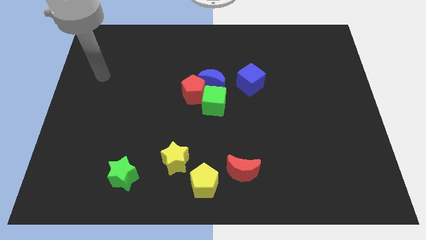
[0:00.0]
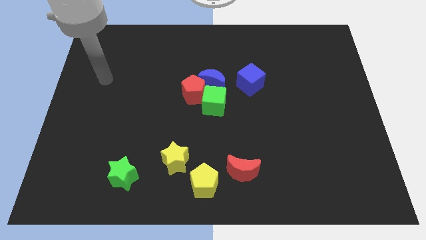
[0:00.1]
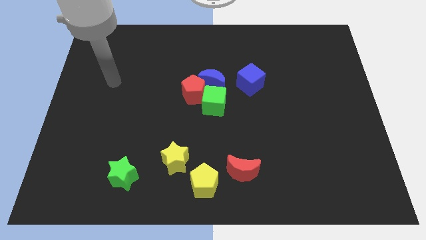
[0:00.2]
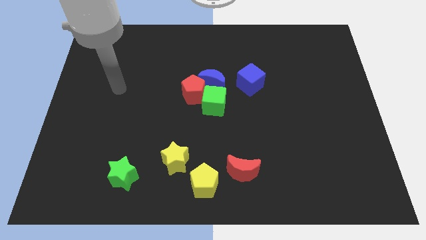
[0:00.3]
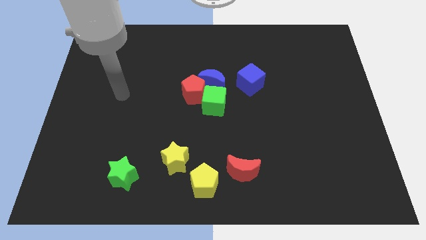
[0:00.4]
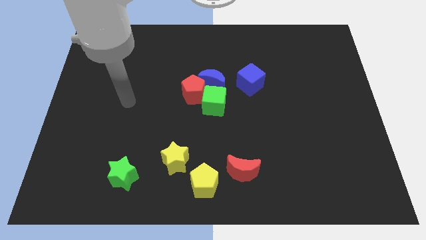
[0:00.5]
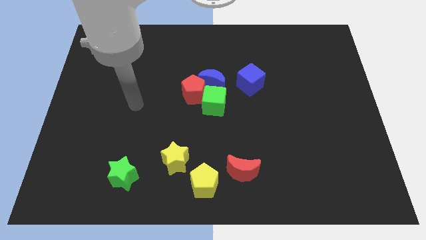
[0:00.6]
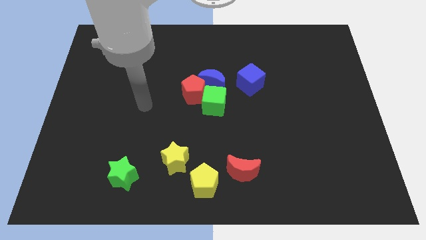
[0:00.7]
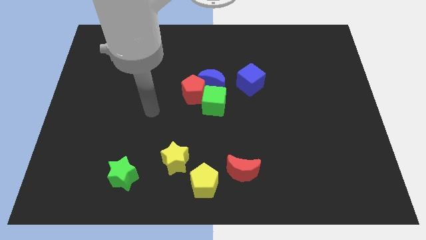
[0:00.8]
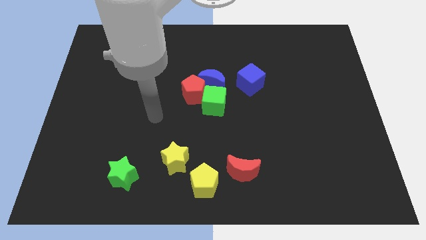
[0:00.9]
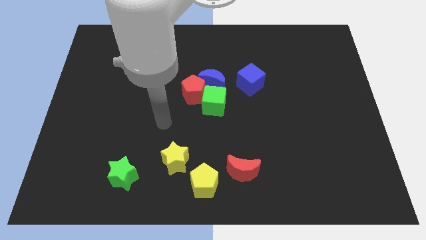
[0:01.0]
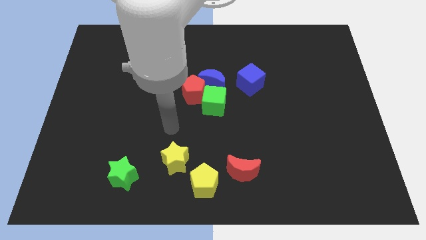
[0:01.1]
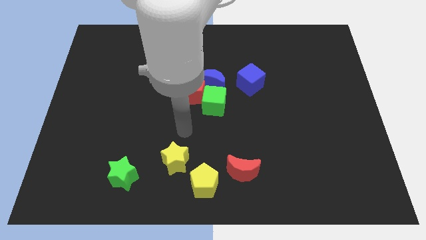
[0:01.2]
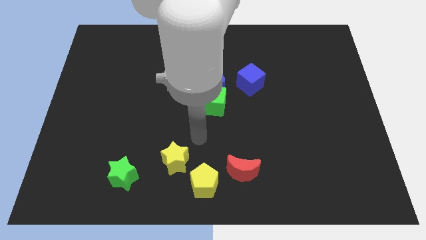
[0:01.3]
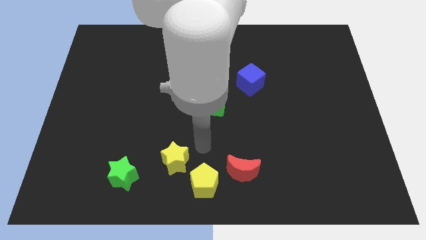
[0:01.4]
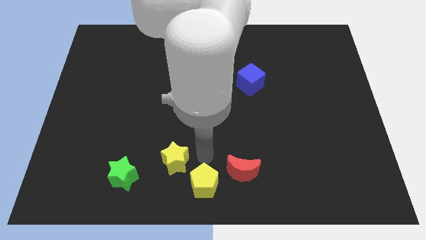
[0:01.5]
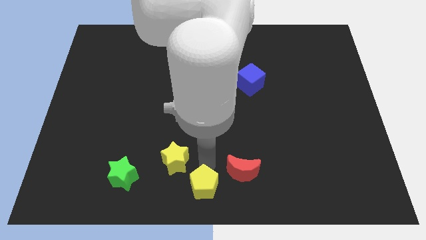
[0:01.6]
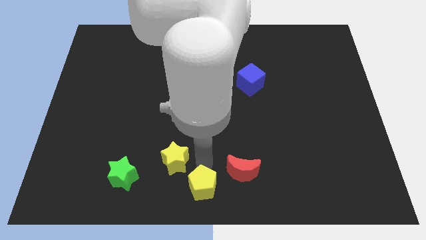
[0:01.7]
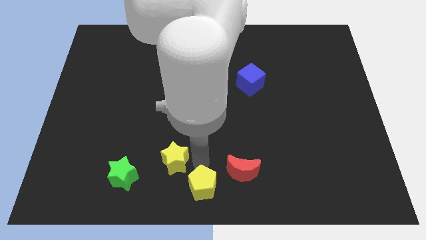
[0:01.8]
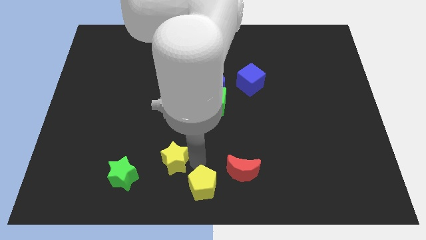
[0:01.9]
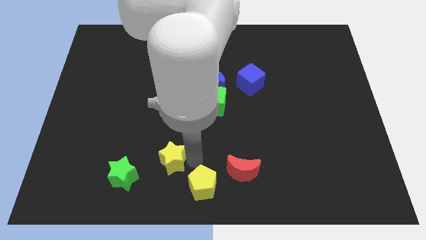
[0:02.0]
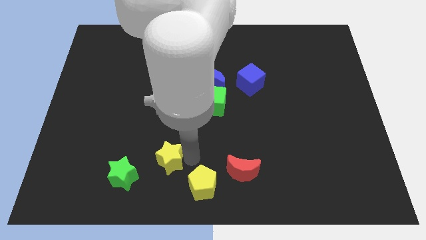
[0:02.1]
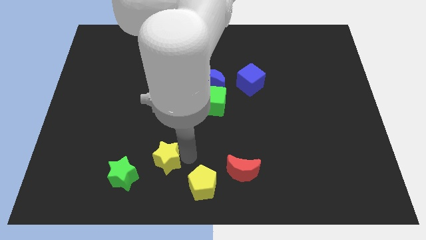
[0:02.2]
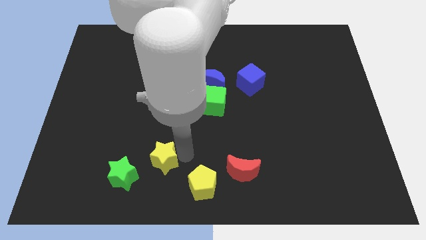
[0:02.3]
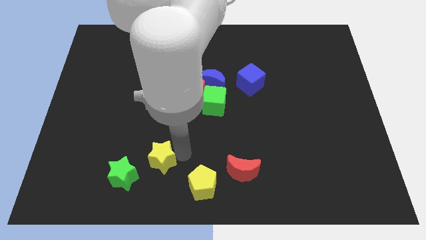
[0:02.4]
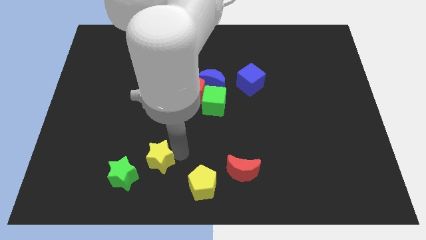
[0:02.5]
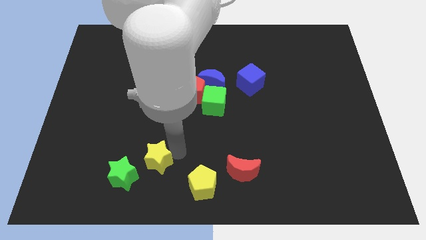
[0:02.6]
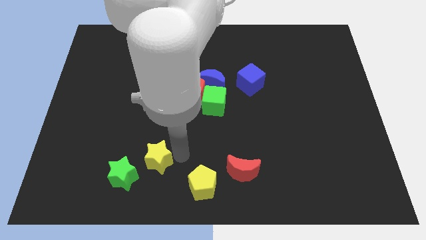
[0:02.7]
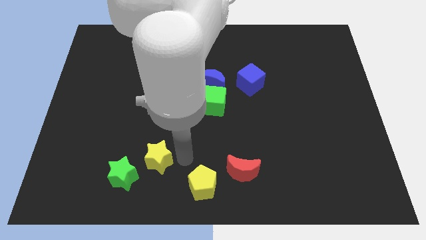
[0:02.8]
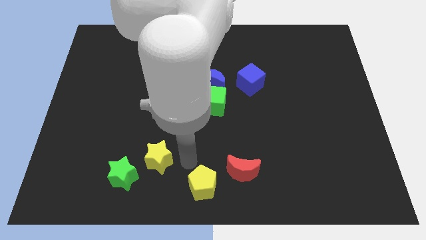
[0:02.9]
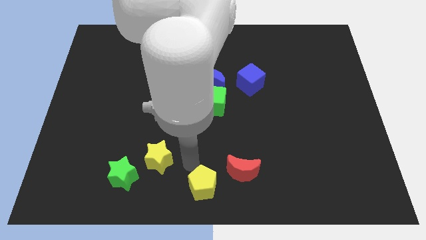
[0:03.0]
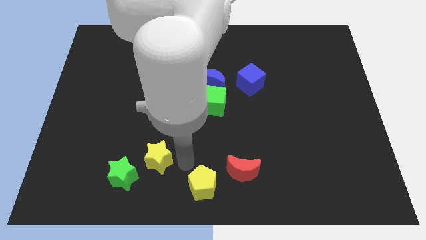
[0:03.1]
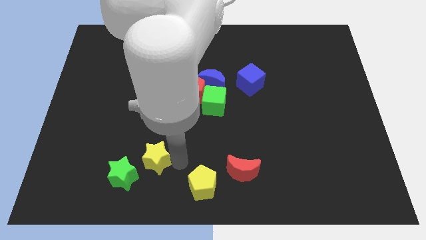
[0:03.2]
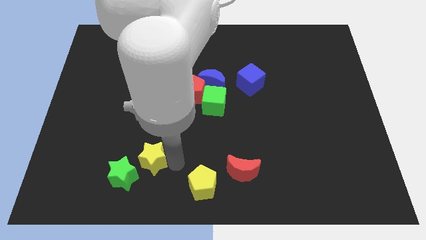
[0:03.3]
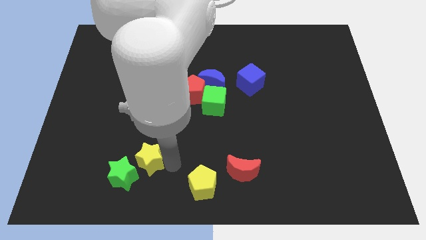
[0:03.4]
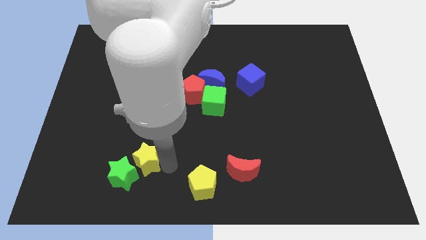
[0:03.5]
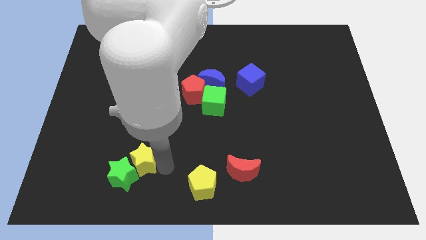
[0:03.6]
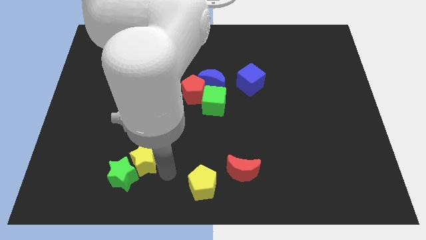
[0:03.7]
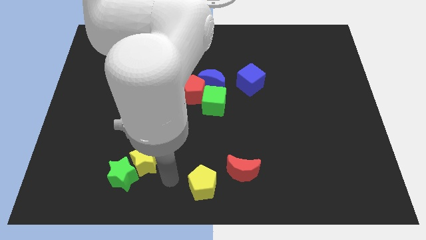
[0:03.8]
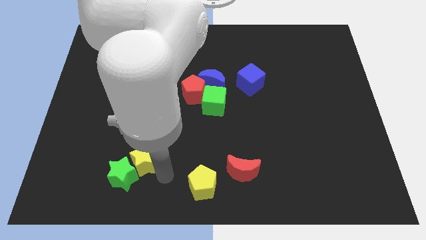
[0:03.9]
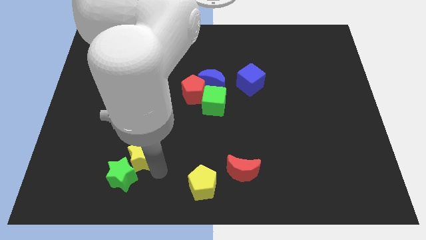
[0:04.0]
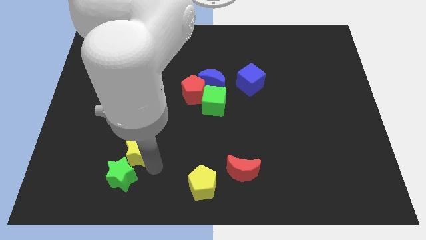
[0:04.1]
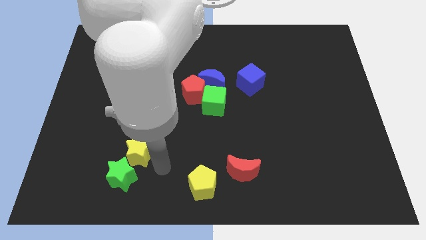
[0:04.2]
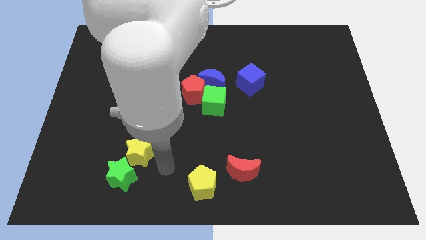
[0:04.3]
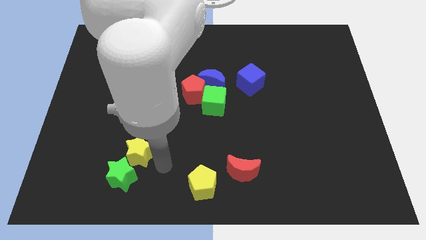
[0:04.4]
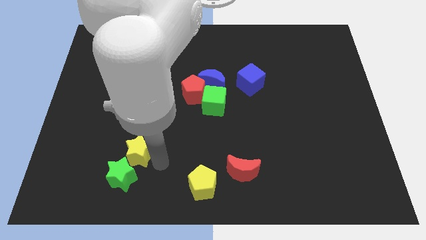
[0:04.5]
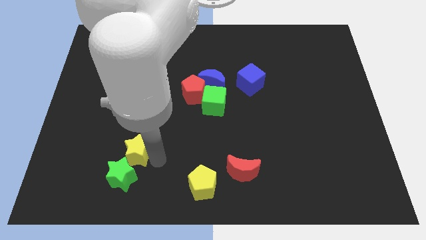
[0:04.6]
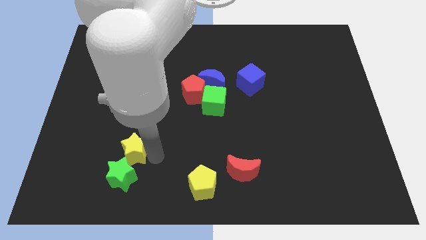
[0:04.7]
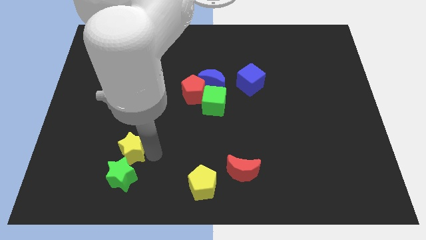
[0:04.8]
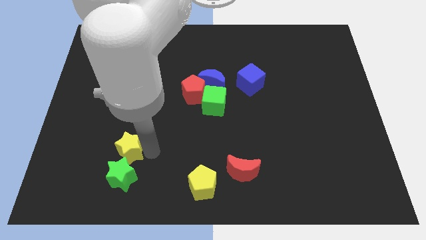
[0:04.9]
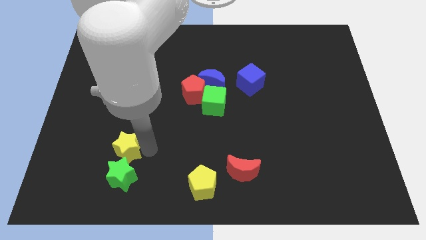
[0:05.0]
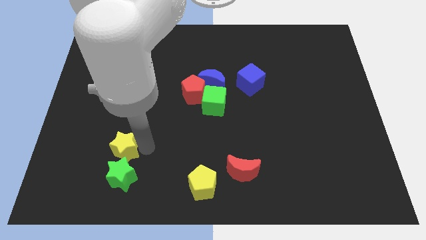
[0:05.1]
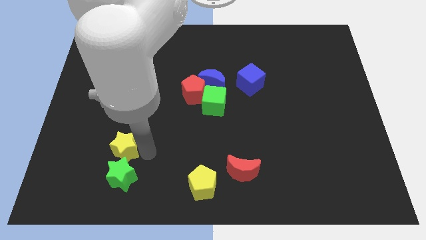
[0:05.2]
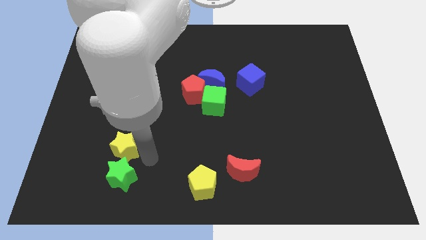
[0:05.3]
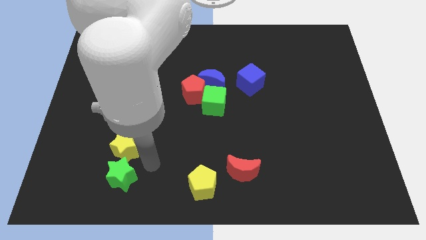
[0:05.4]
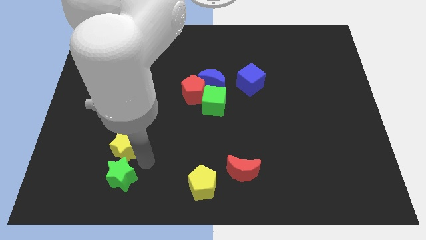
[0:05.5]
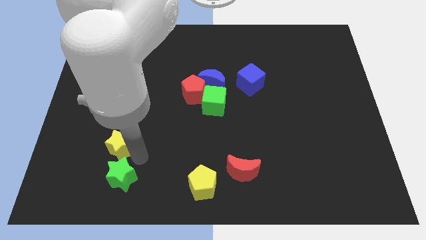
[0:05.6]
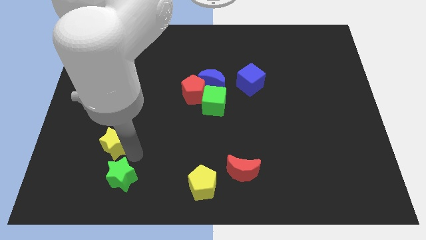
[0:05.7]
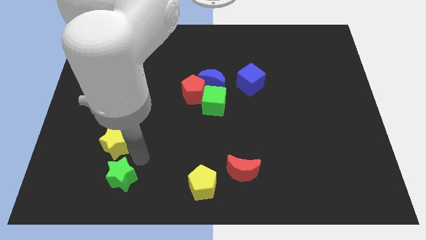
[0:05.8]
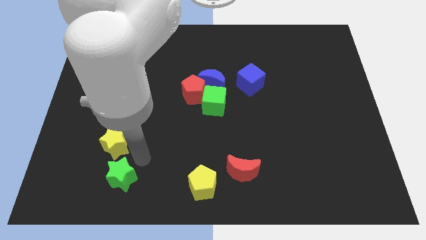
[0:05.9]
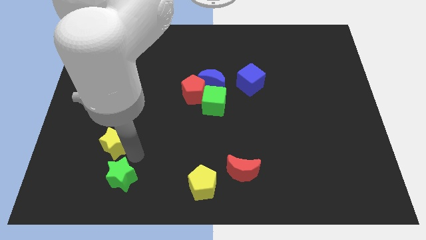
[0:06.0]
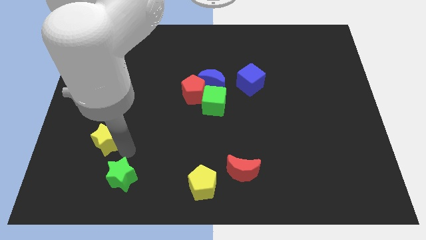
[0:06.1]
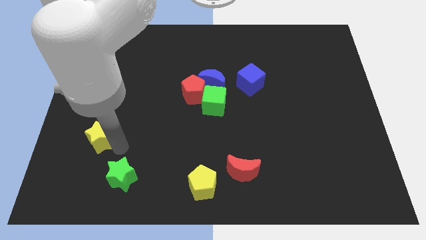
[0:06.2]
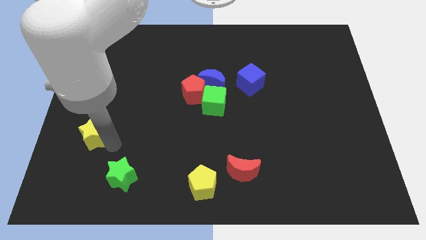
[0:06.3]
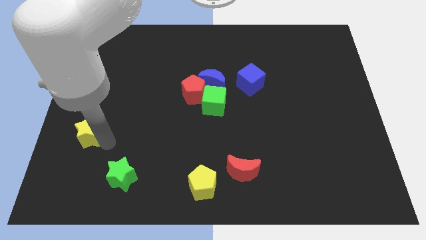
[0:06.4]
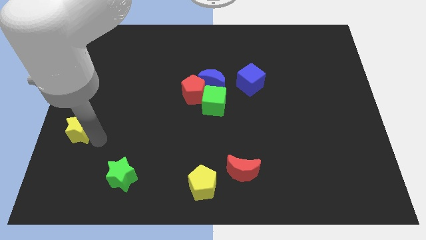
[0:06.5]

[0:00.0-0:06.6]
put the yellow star to the left side of the board
